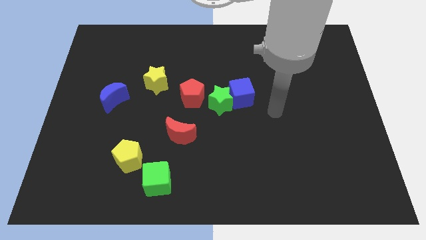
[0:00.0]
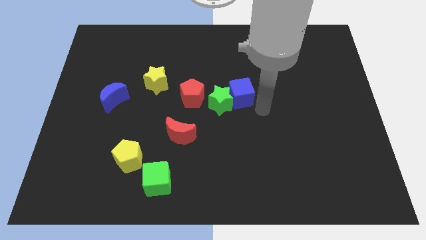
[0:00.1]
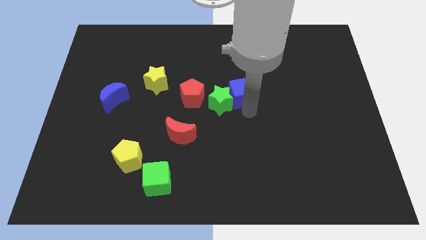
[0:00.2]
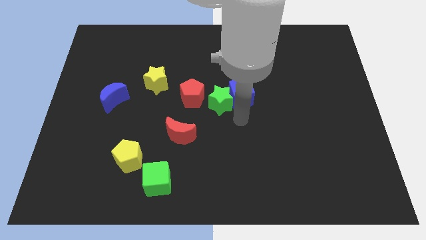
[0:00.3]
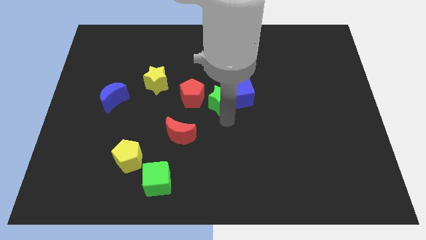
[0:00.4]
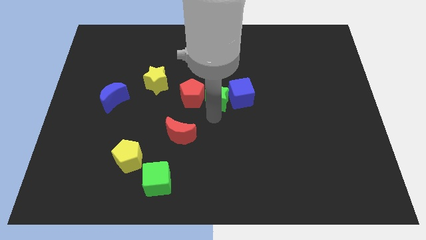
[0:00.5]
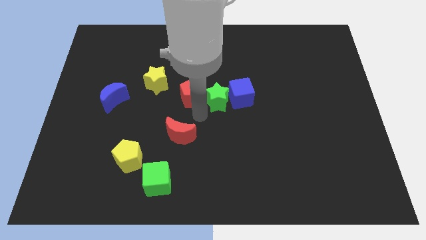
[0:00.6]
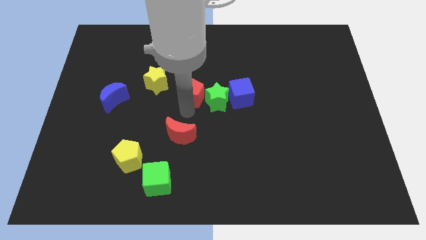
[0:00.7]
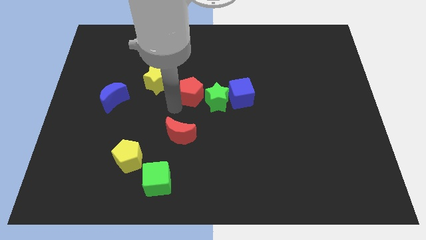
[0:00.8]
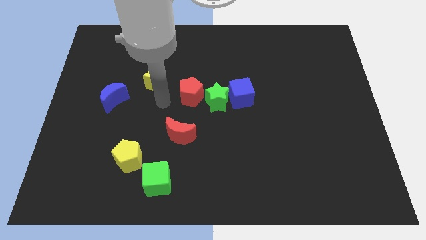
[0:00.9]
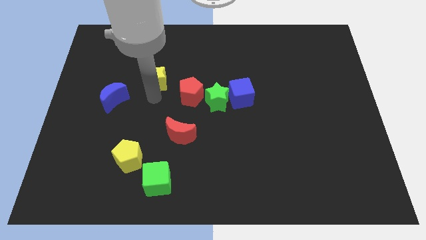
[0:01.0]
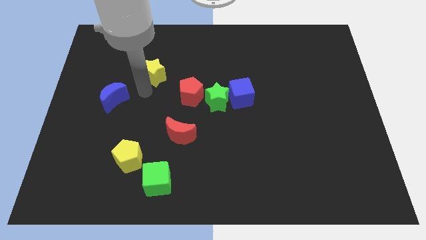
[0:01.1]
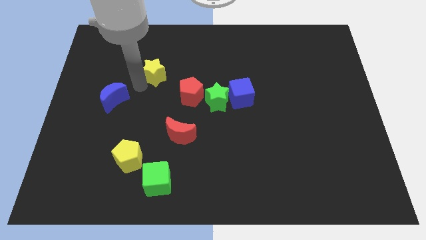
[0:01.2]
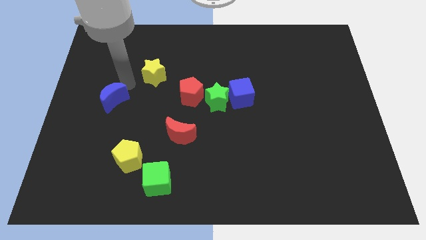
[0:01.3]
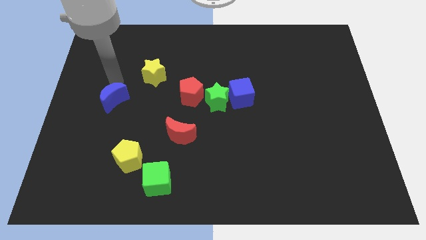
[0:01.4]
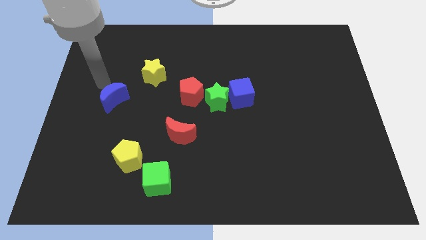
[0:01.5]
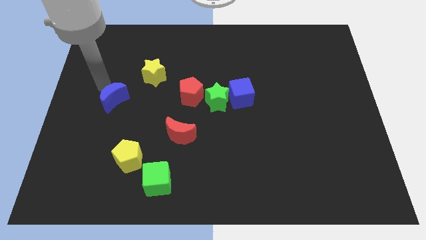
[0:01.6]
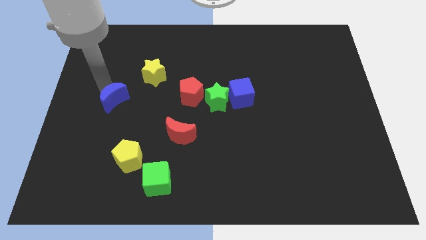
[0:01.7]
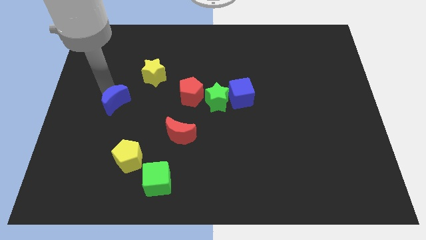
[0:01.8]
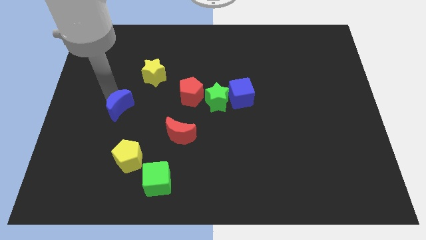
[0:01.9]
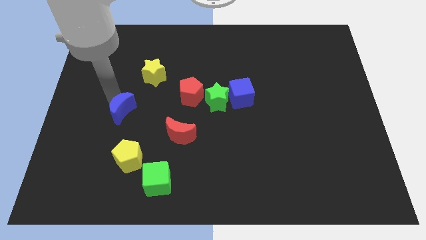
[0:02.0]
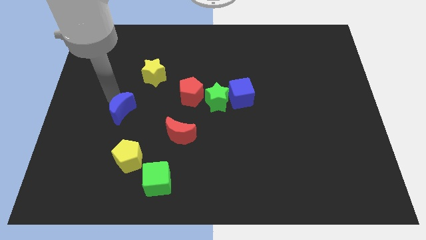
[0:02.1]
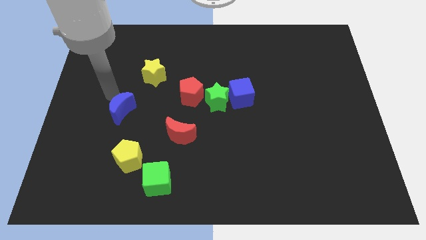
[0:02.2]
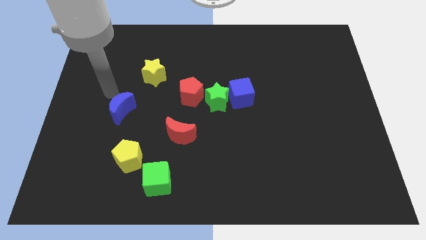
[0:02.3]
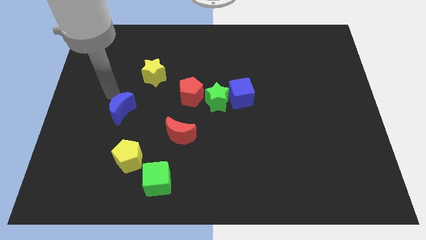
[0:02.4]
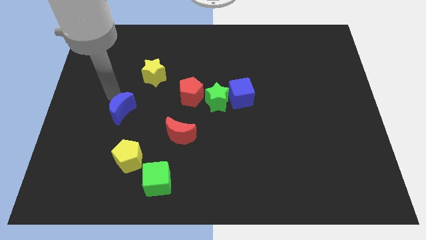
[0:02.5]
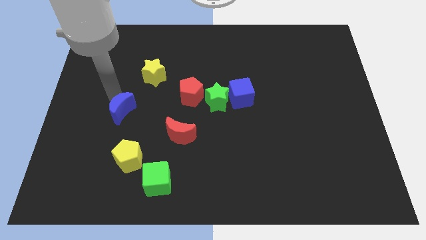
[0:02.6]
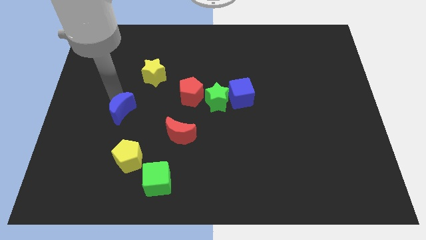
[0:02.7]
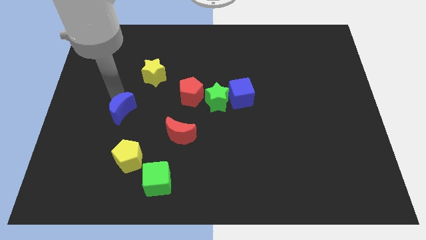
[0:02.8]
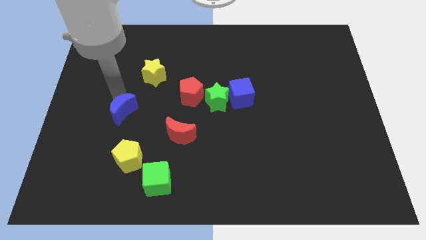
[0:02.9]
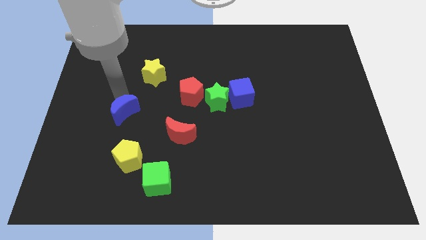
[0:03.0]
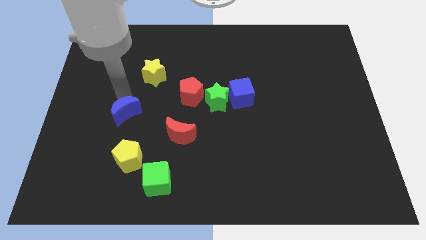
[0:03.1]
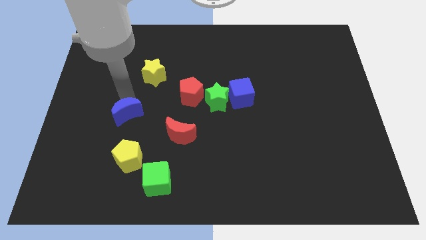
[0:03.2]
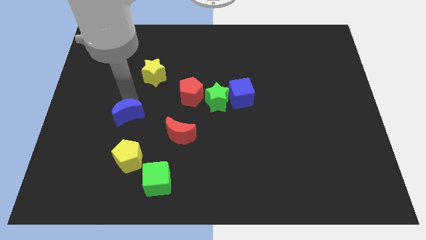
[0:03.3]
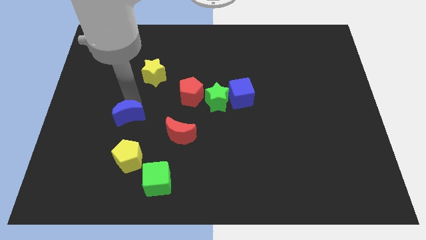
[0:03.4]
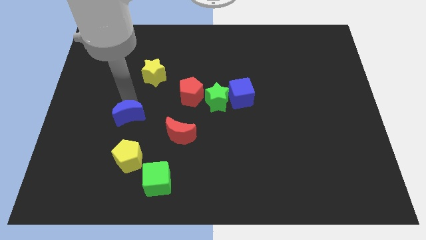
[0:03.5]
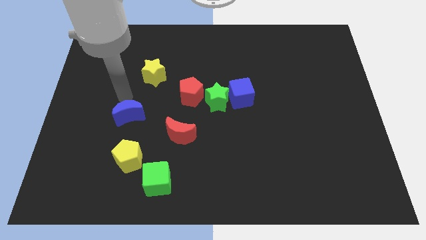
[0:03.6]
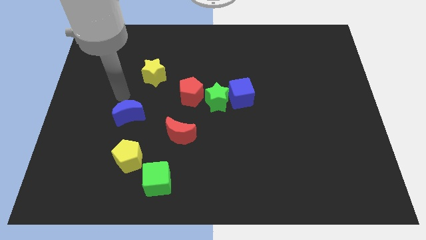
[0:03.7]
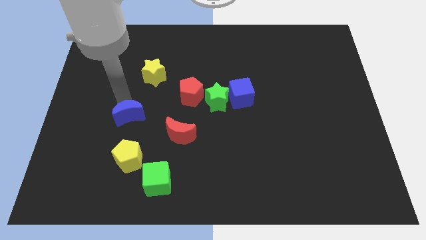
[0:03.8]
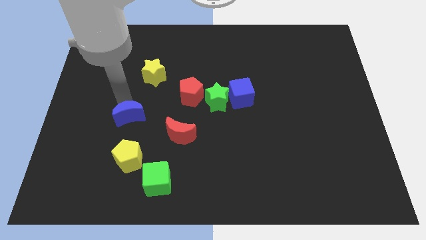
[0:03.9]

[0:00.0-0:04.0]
push the blue moon a little diagonally down and to the right

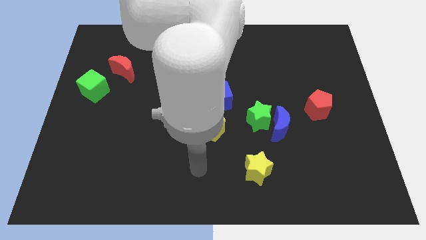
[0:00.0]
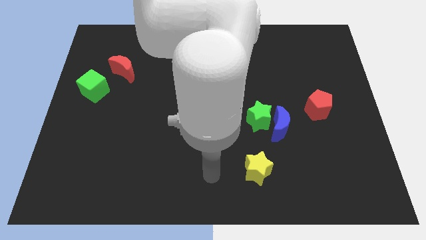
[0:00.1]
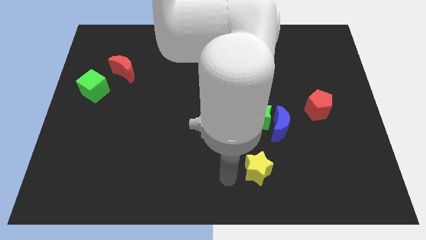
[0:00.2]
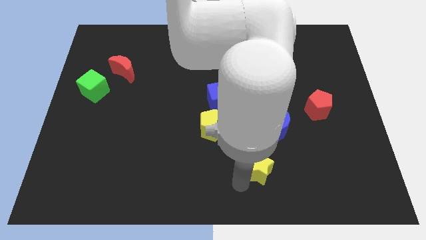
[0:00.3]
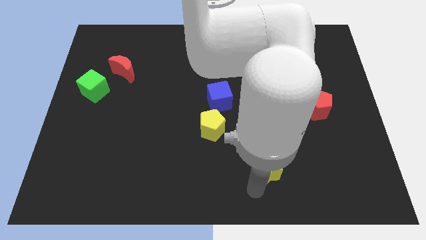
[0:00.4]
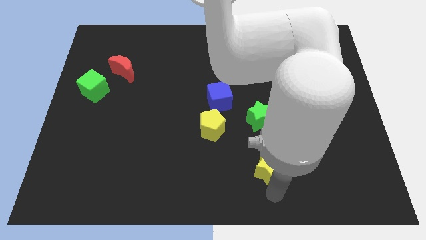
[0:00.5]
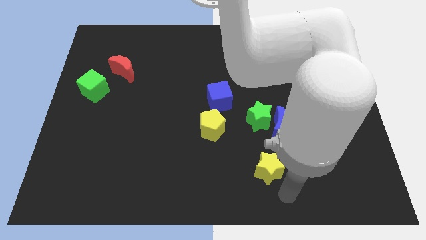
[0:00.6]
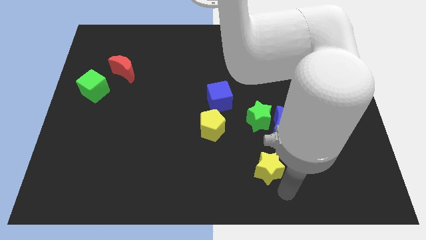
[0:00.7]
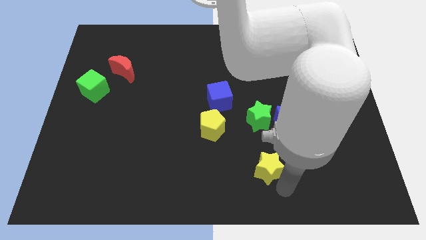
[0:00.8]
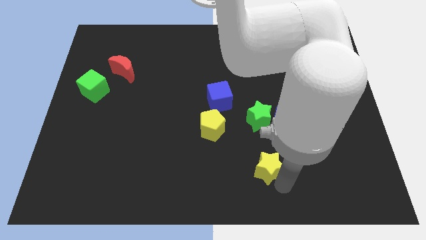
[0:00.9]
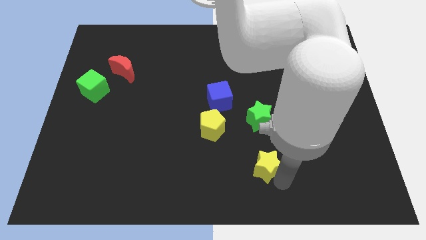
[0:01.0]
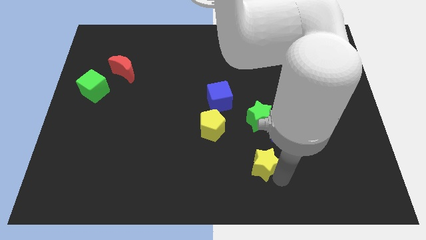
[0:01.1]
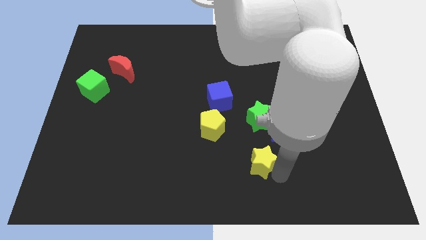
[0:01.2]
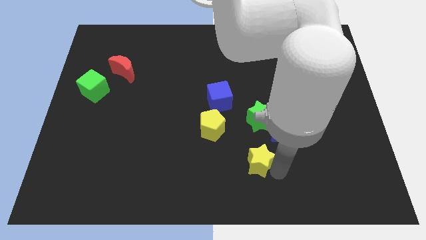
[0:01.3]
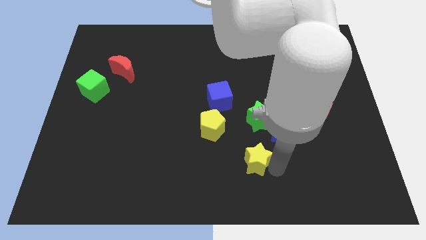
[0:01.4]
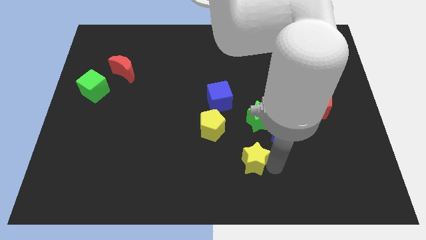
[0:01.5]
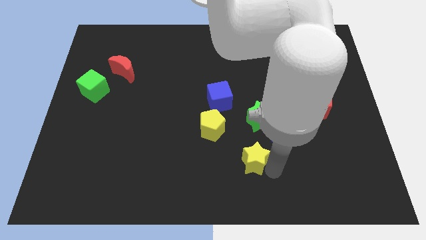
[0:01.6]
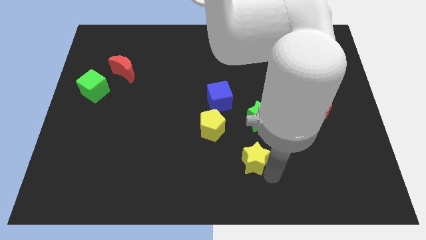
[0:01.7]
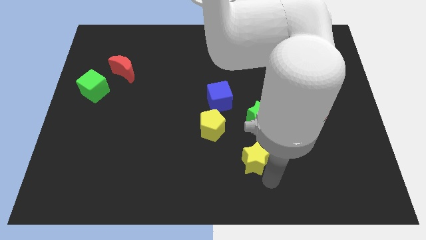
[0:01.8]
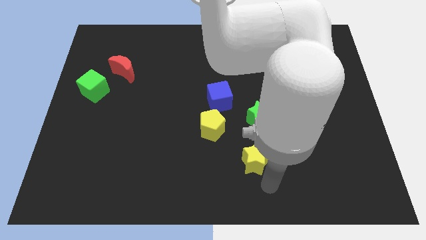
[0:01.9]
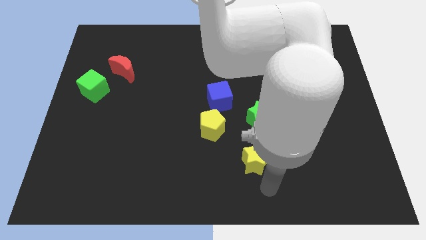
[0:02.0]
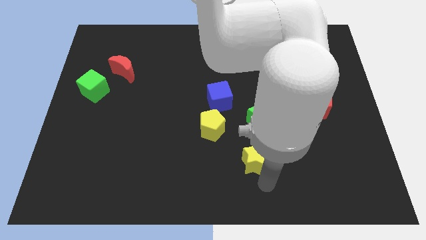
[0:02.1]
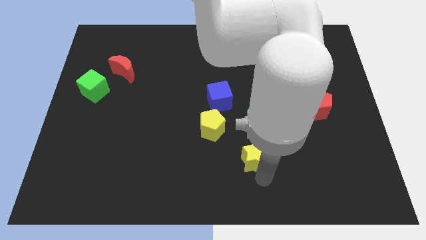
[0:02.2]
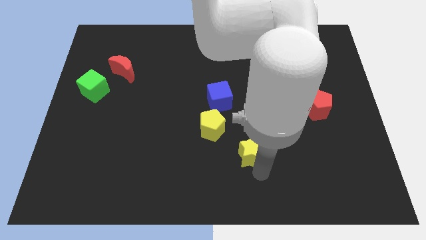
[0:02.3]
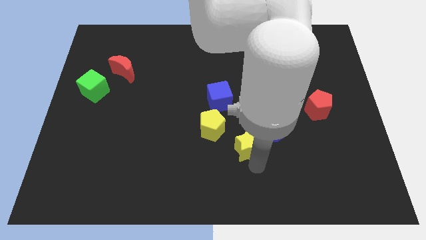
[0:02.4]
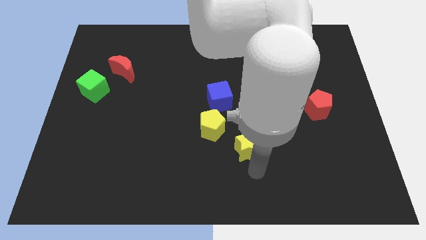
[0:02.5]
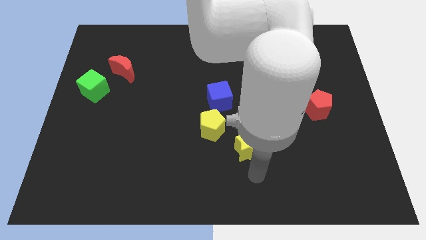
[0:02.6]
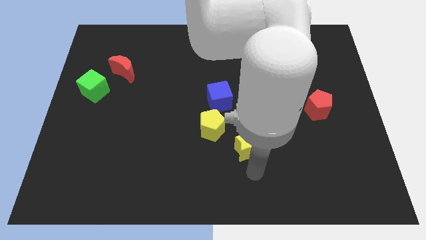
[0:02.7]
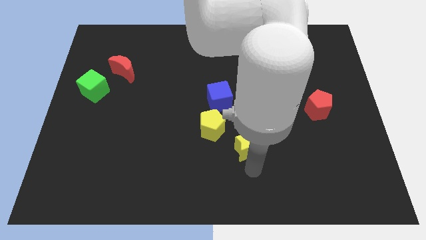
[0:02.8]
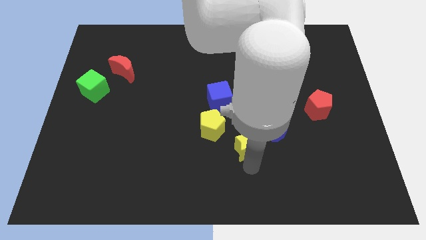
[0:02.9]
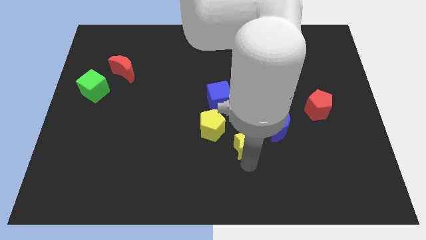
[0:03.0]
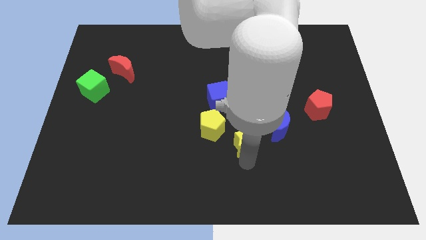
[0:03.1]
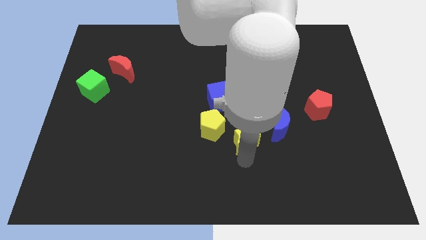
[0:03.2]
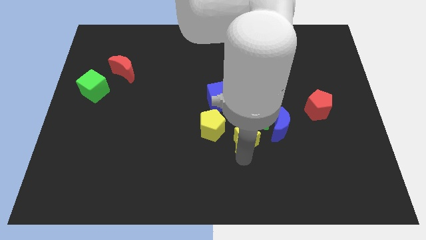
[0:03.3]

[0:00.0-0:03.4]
slide the yellow star a bit up

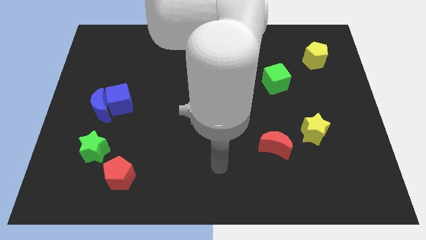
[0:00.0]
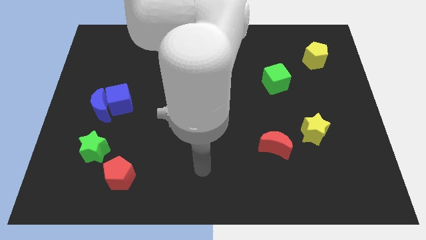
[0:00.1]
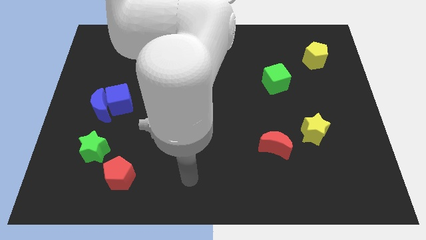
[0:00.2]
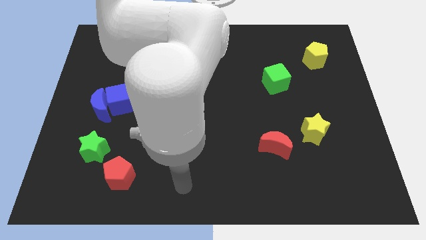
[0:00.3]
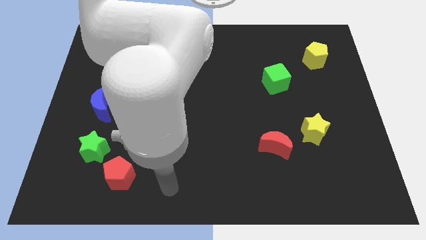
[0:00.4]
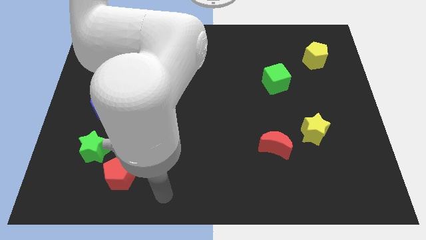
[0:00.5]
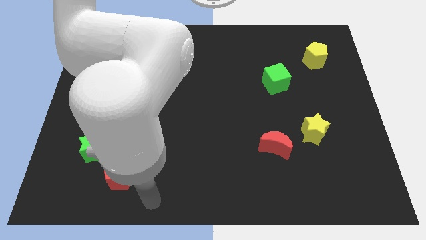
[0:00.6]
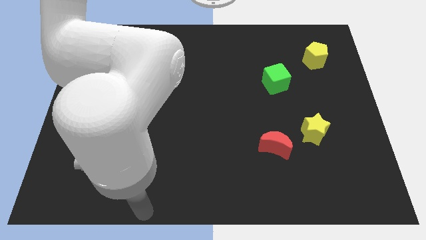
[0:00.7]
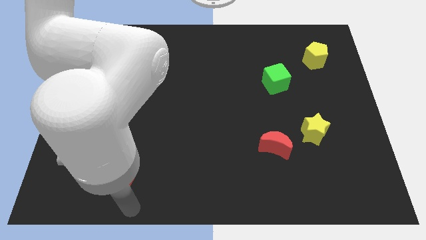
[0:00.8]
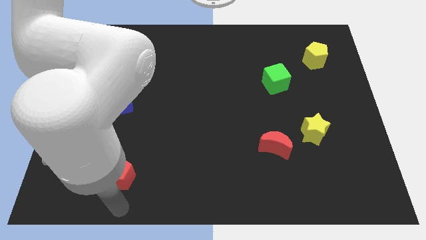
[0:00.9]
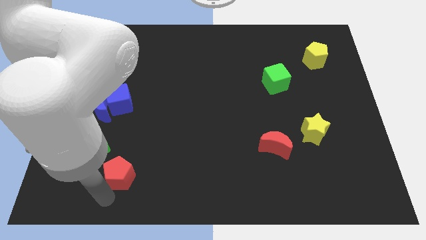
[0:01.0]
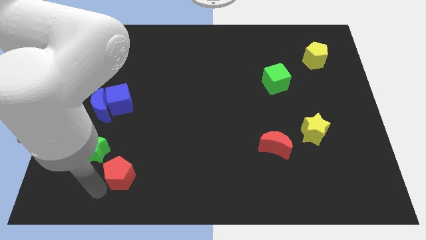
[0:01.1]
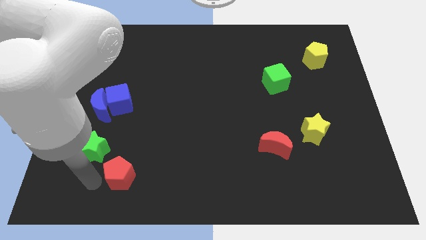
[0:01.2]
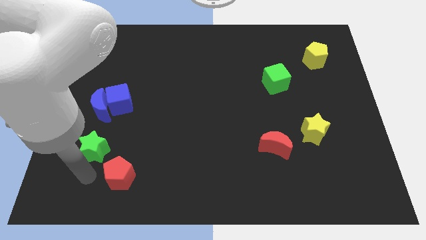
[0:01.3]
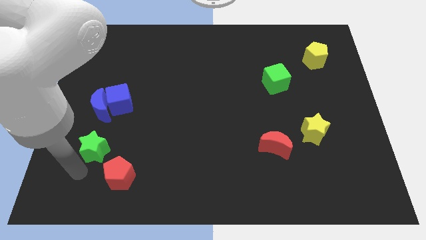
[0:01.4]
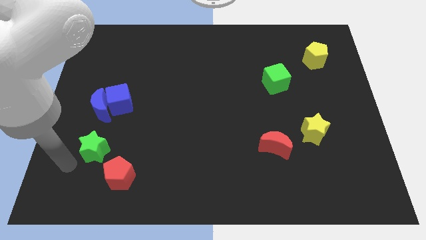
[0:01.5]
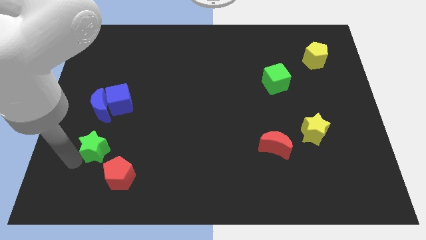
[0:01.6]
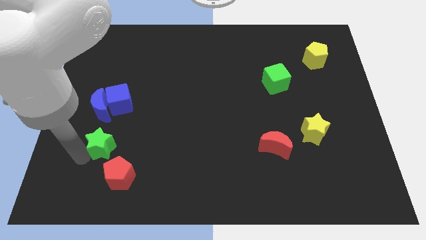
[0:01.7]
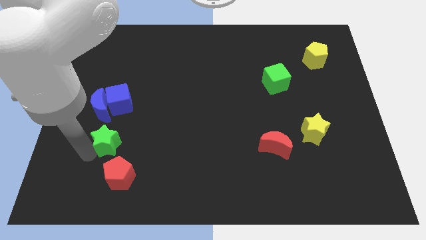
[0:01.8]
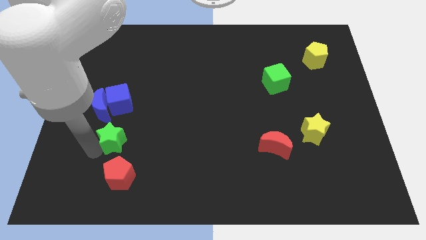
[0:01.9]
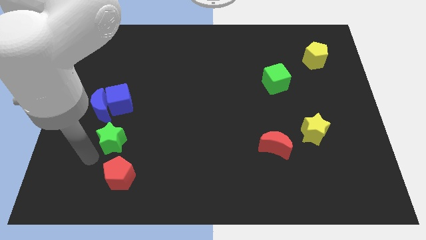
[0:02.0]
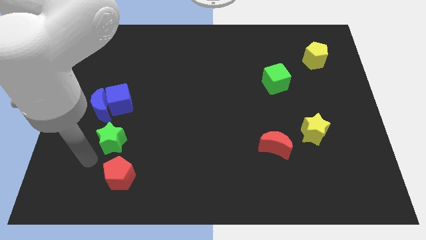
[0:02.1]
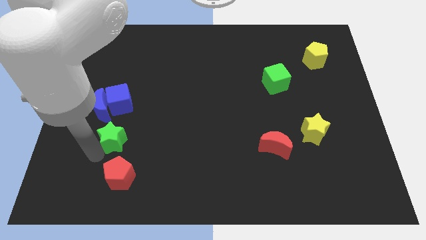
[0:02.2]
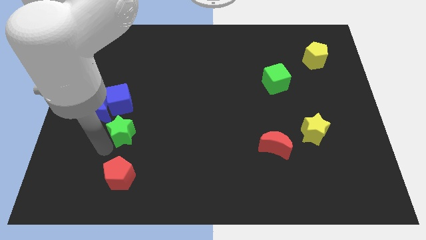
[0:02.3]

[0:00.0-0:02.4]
move the green star upwards and then right somewhat
